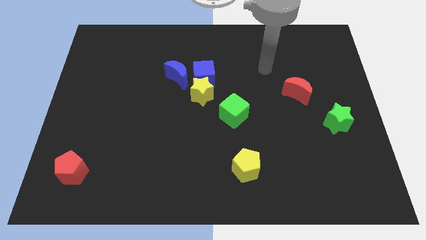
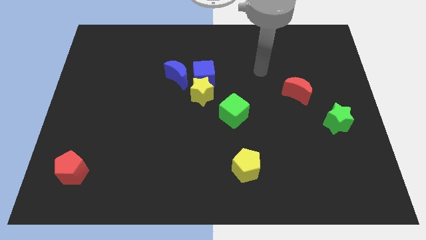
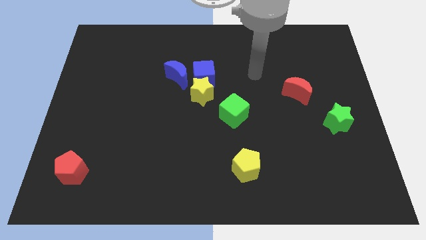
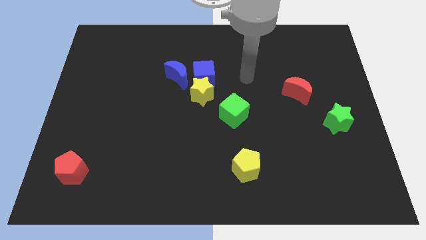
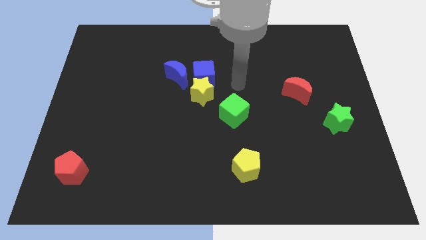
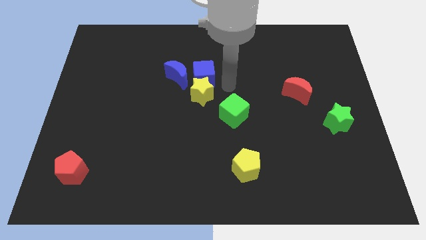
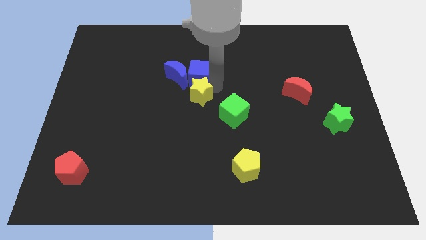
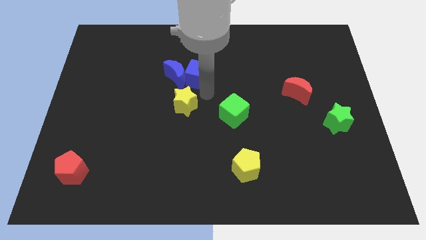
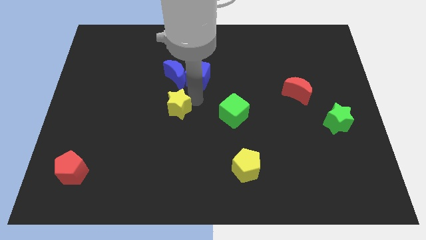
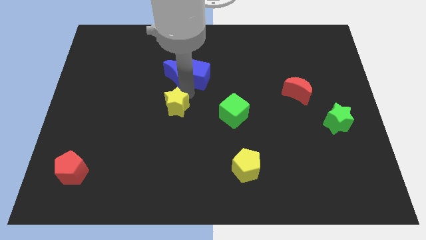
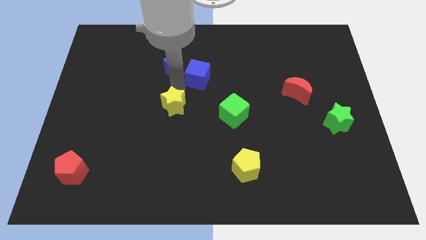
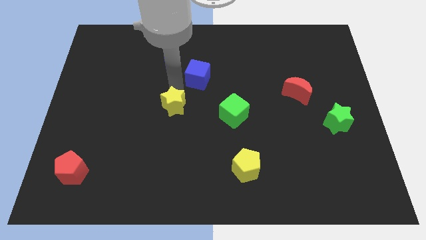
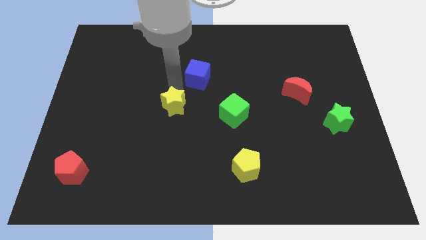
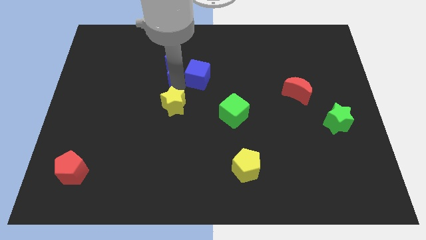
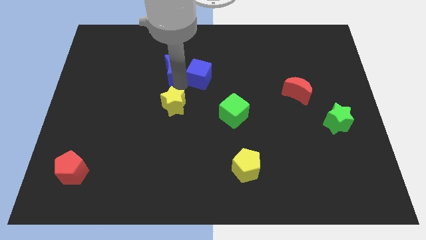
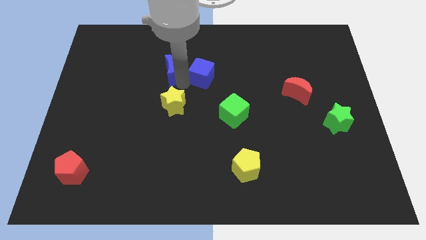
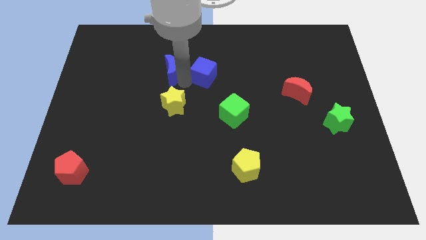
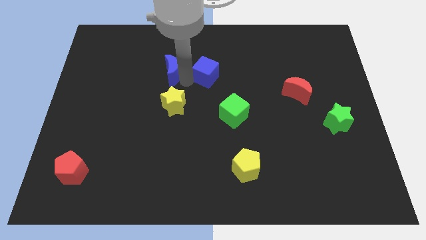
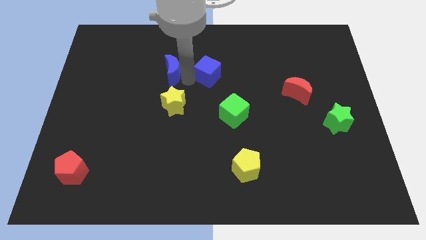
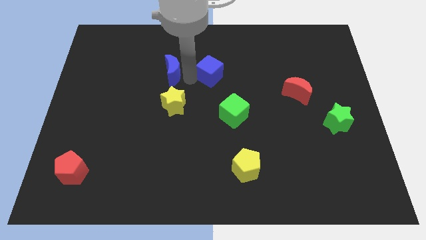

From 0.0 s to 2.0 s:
move the blue cube away from the yellow star and blue moon

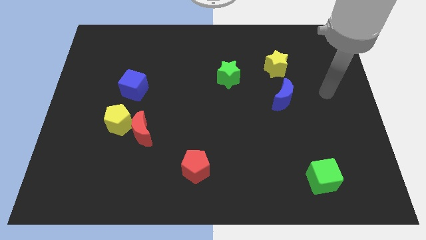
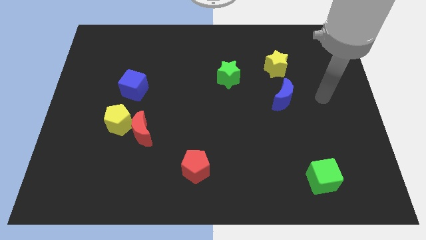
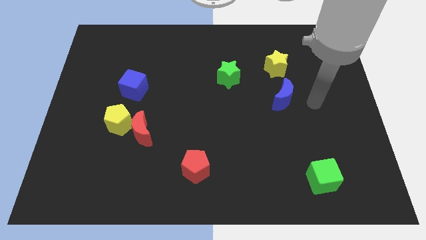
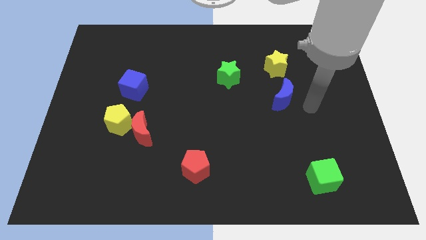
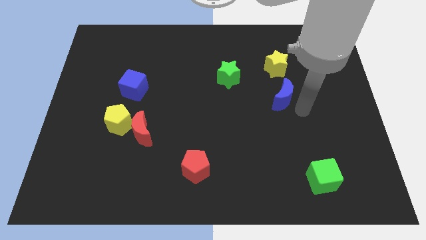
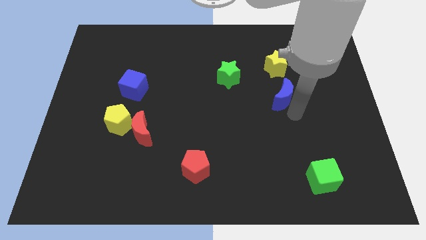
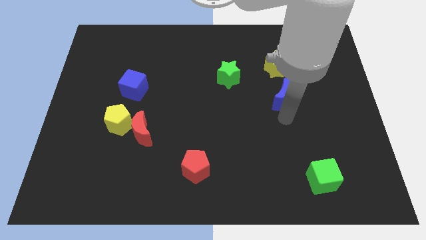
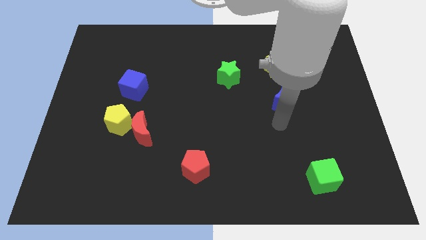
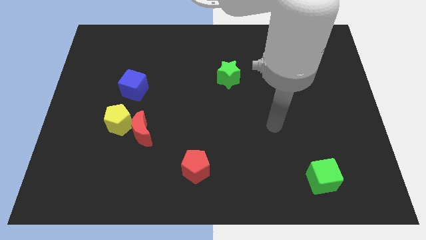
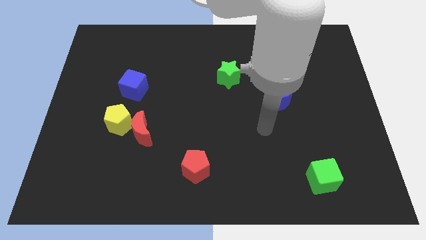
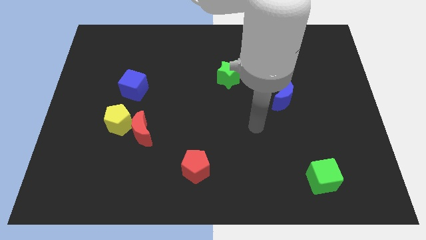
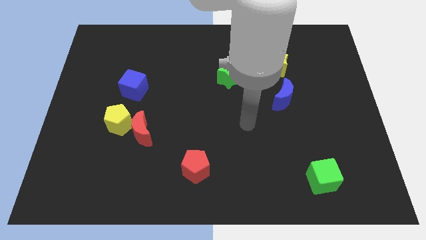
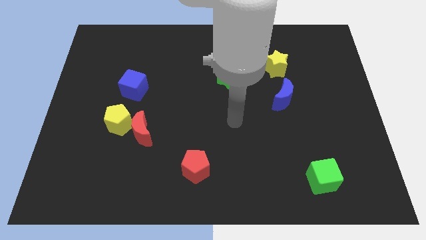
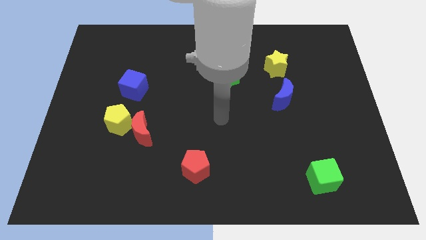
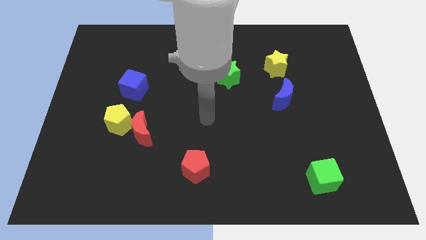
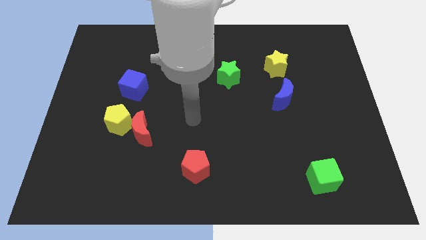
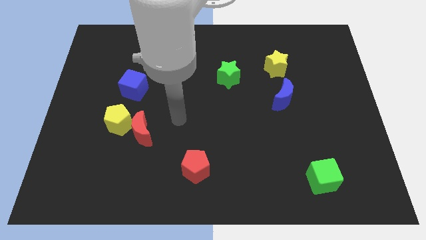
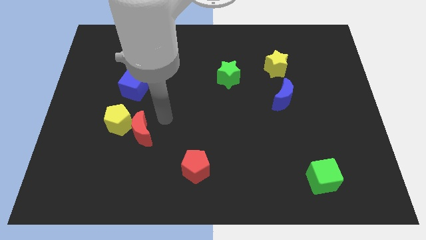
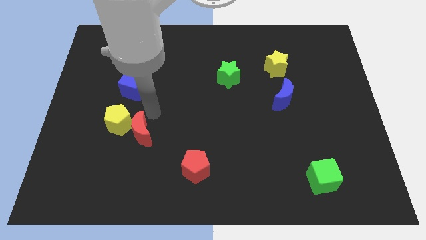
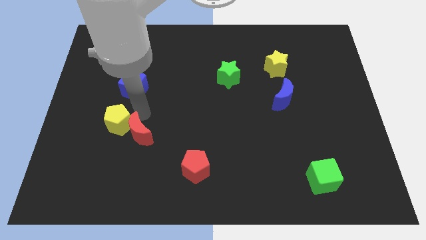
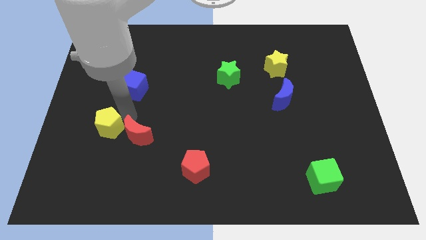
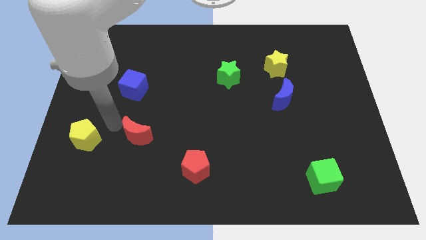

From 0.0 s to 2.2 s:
move the red moon away from the yellow pentagon

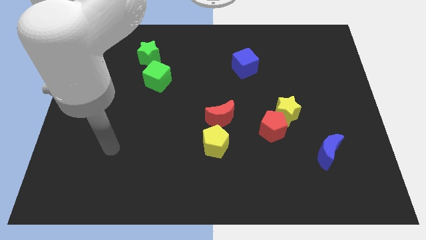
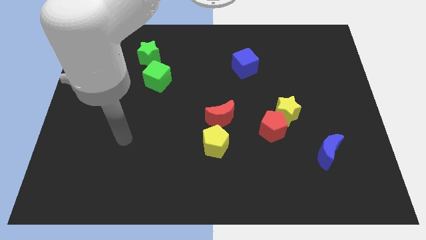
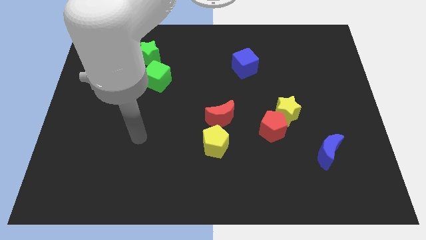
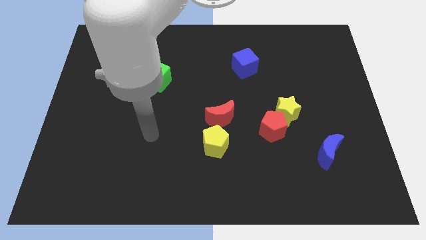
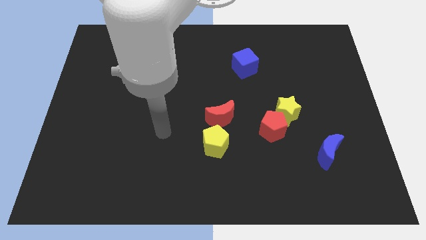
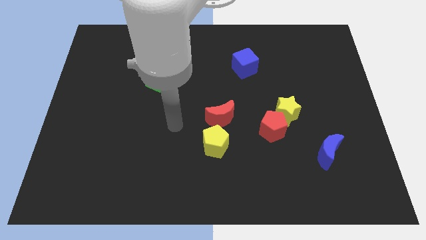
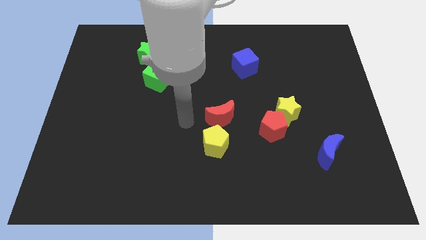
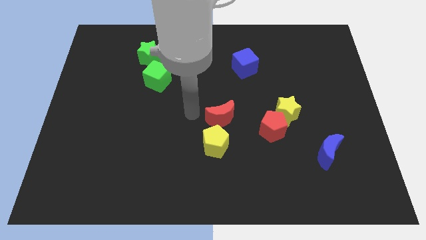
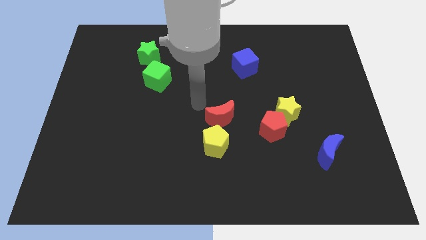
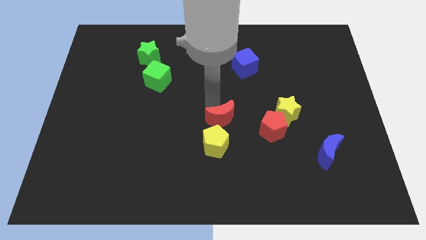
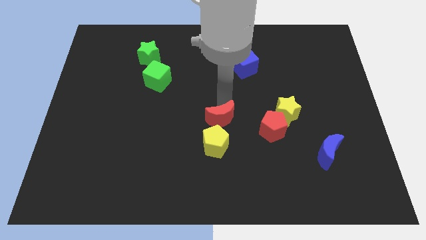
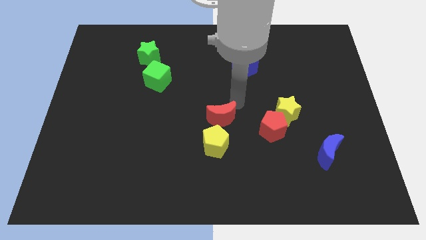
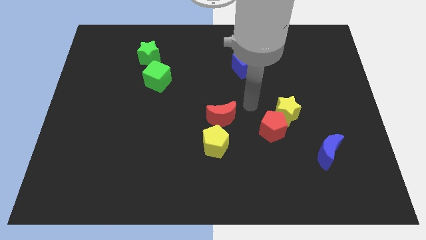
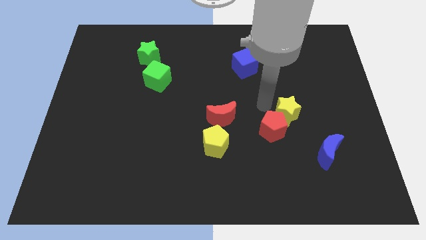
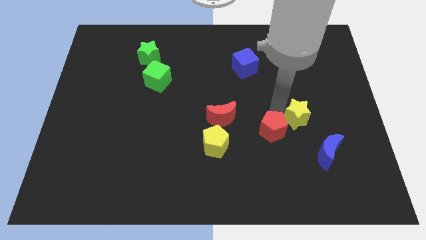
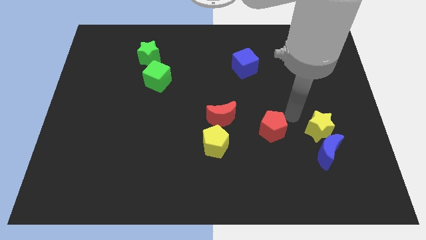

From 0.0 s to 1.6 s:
move the red pentagon away from the yellow star

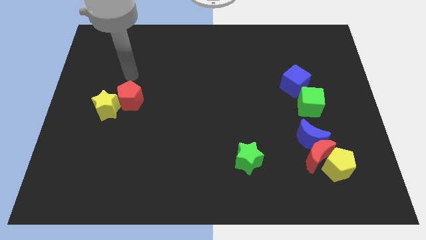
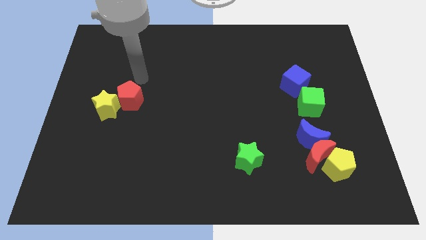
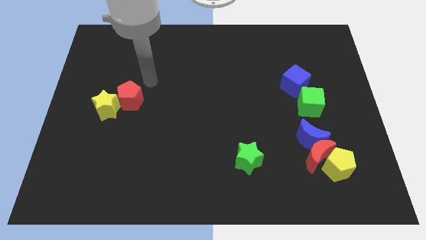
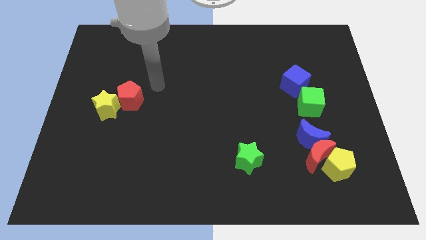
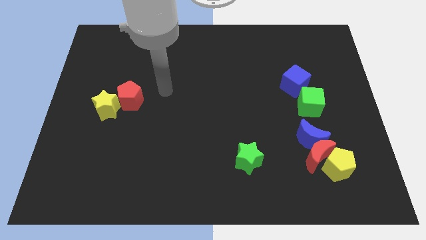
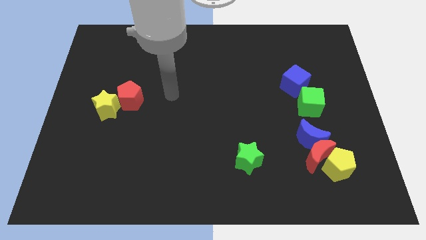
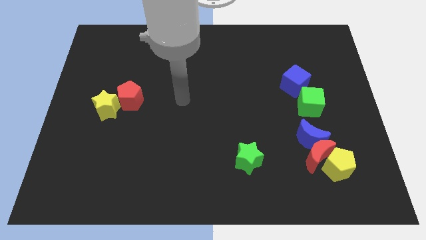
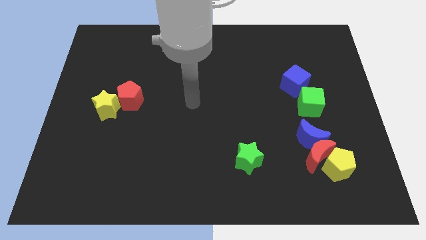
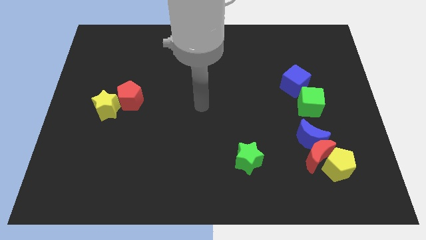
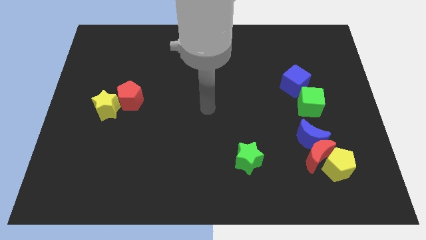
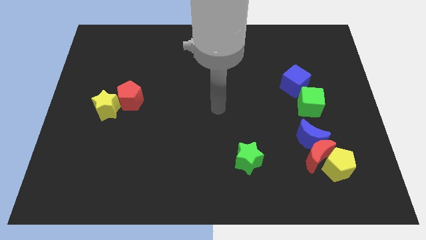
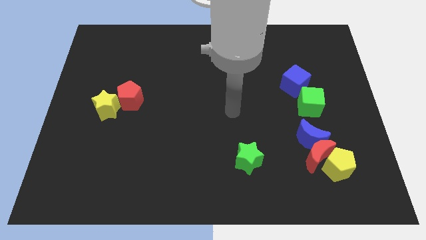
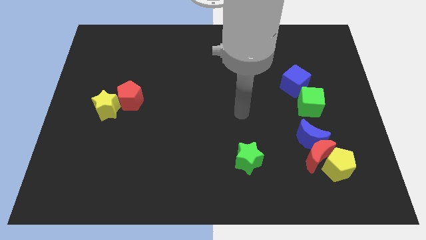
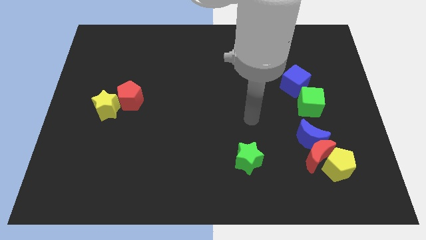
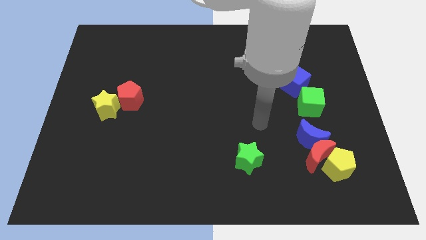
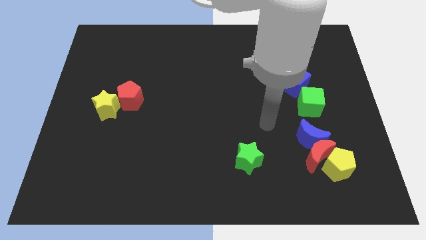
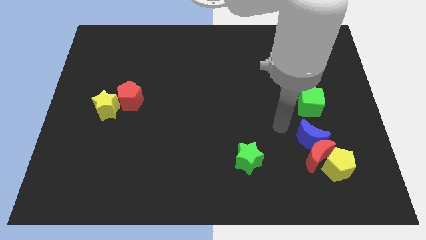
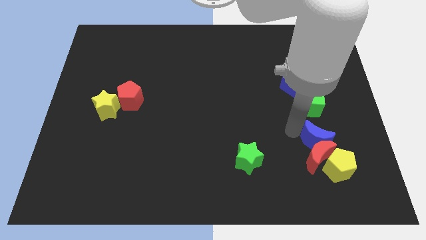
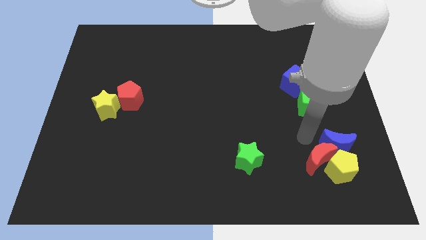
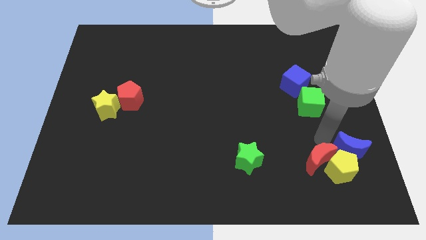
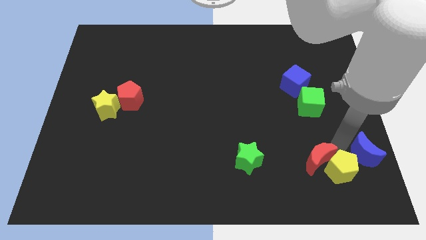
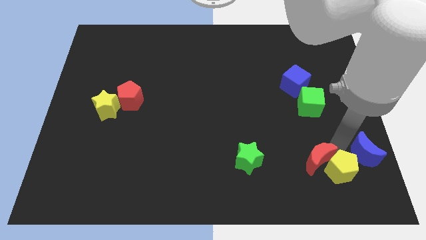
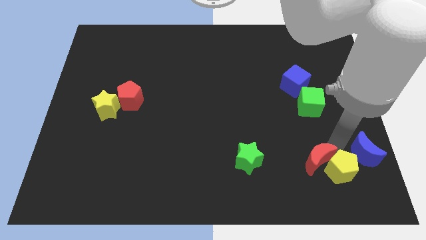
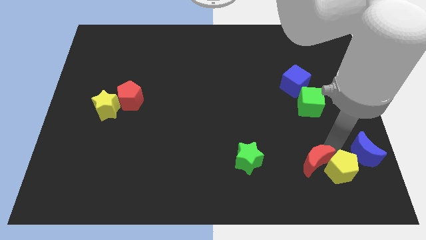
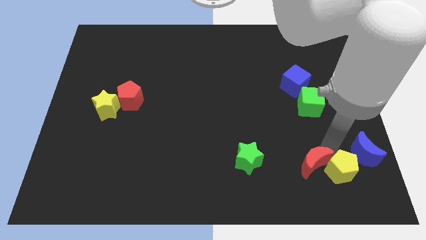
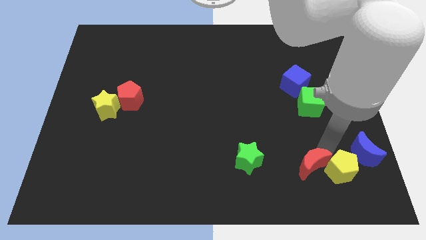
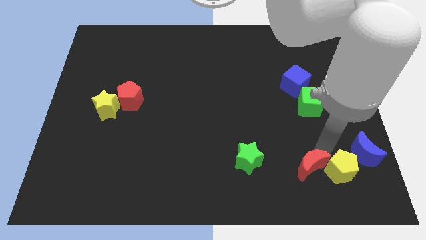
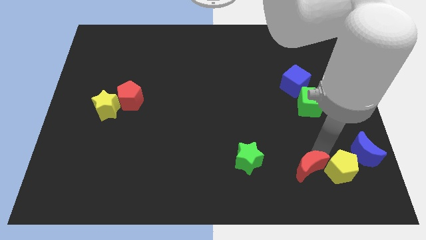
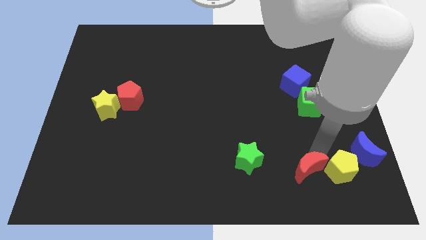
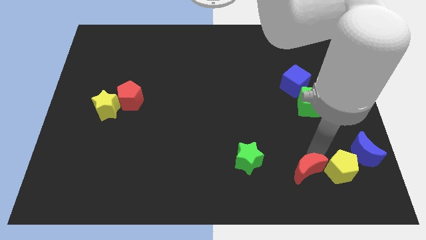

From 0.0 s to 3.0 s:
separate the red moon from the blue moon and yellow pentagon

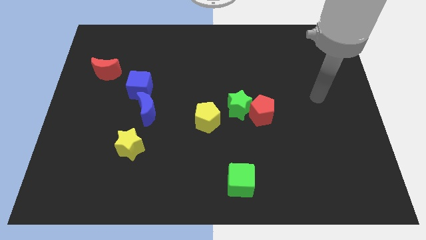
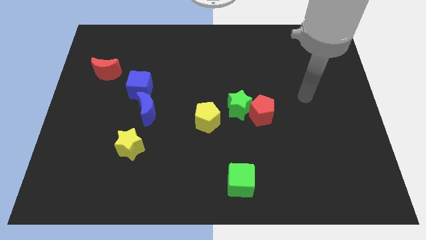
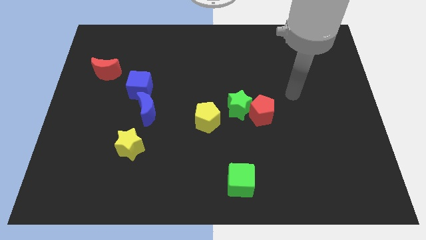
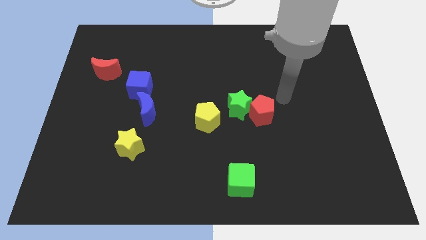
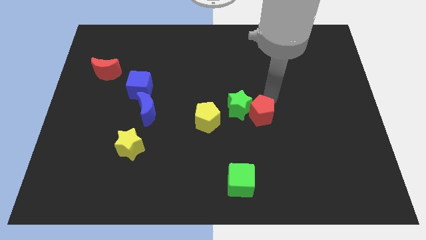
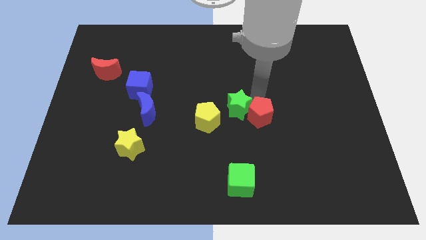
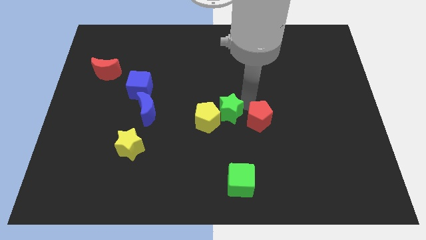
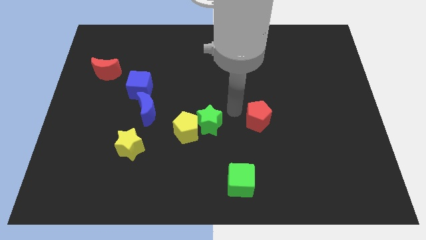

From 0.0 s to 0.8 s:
move the red pentagon away from the green star
